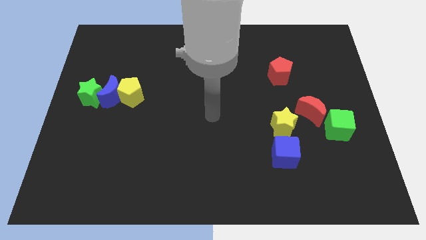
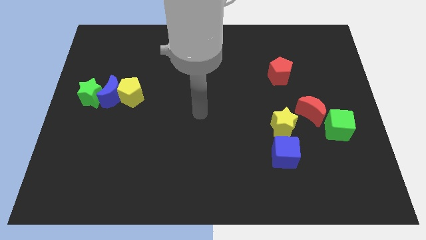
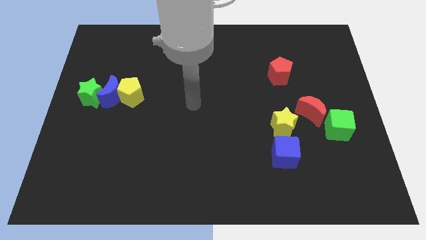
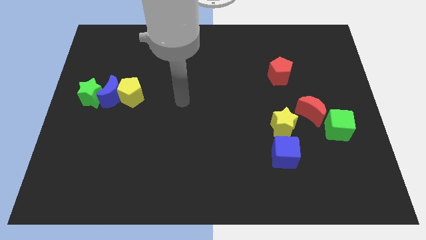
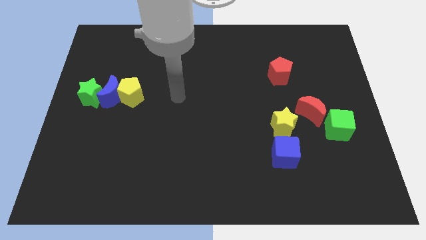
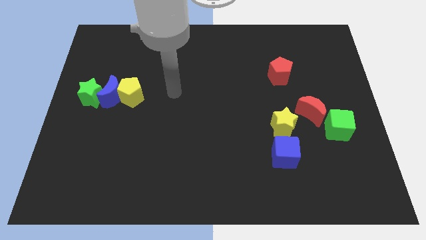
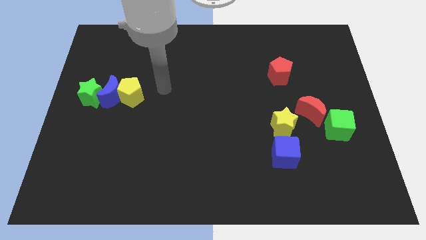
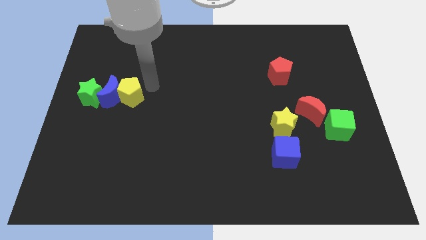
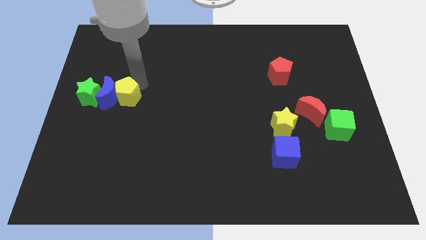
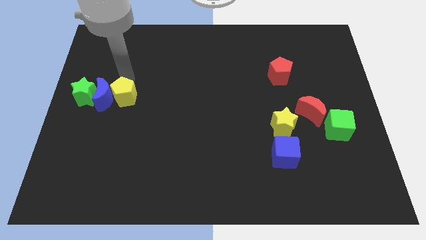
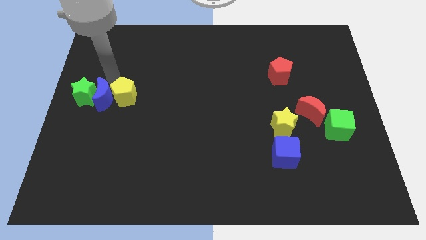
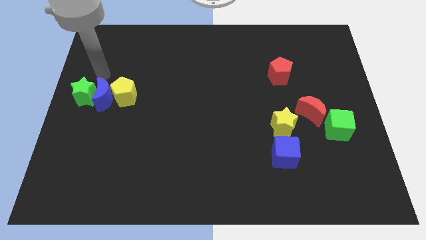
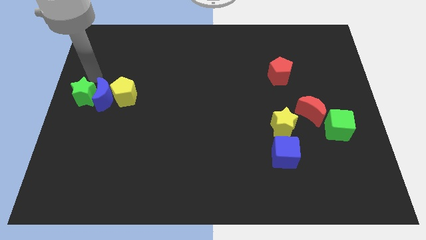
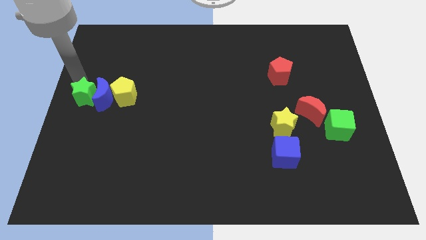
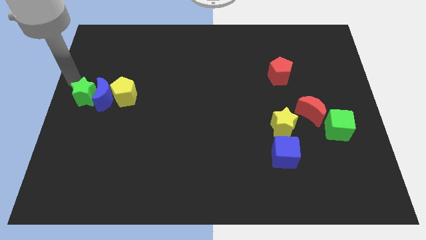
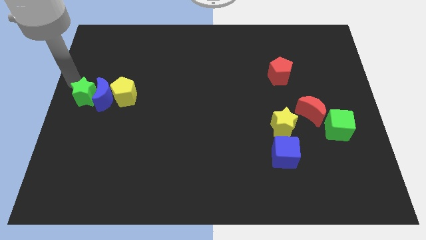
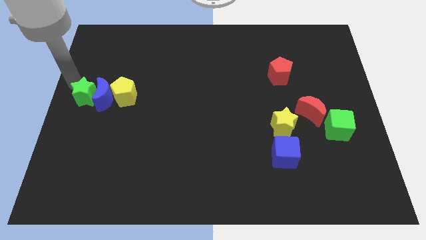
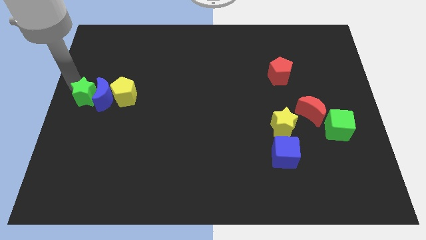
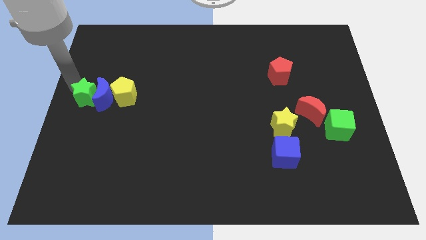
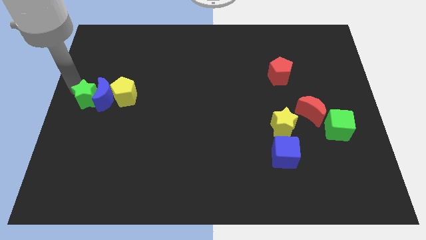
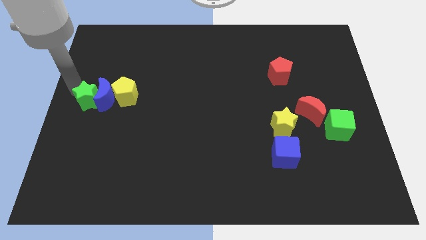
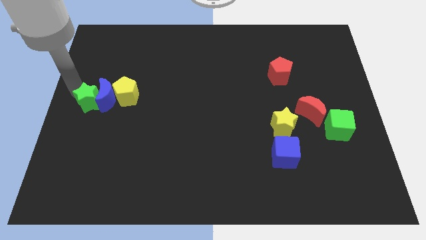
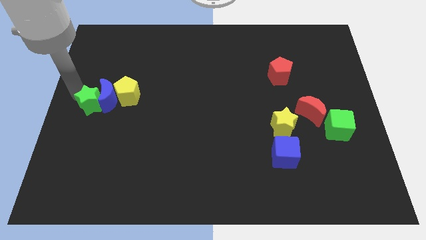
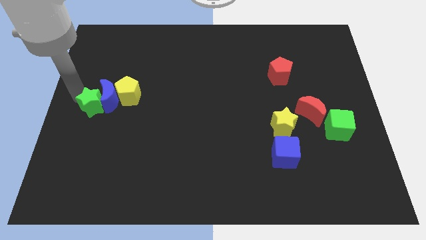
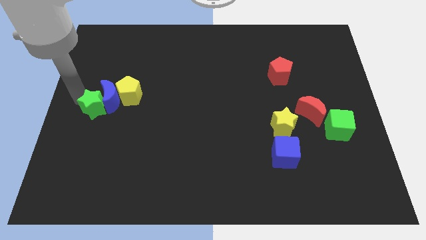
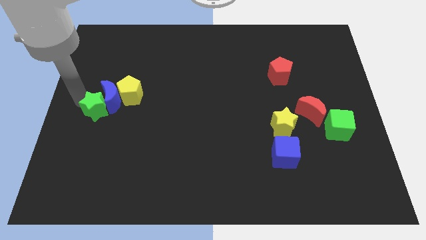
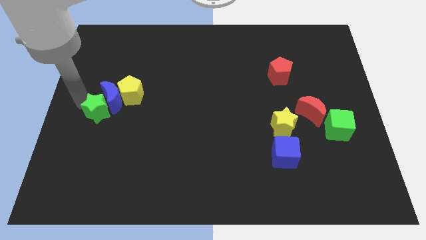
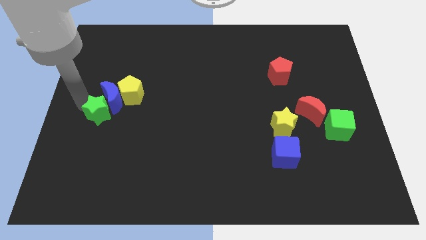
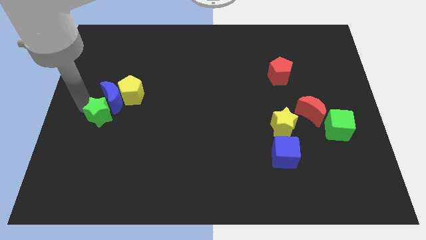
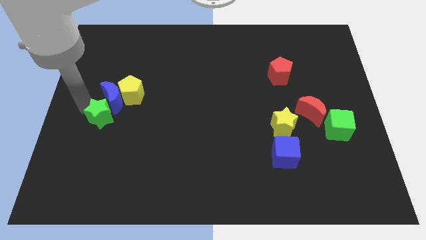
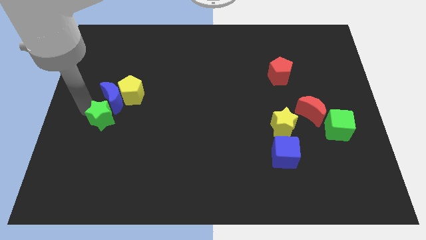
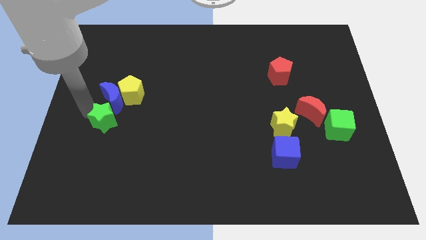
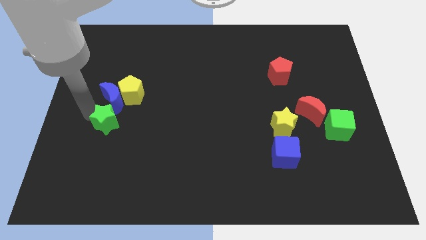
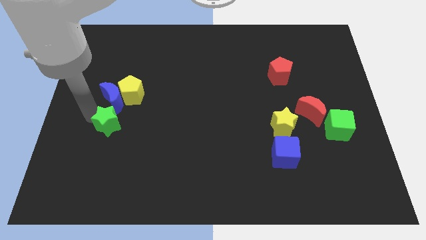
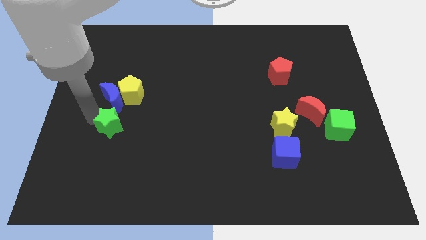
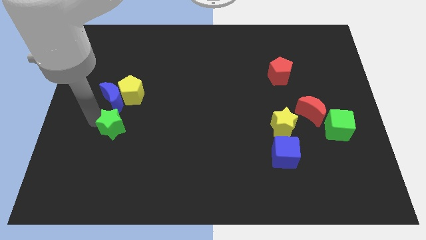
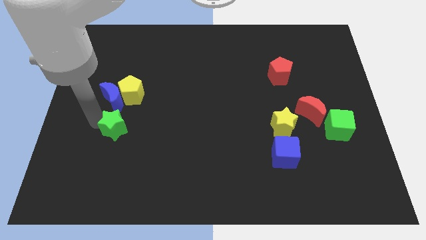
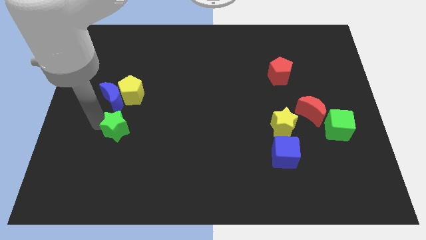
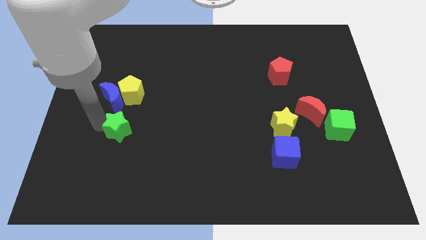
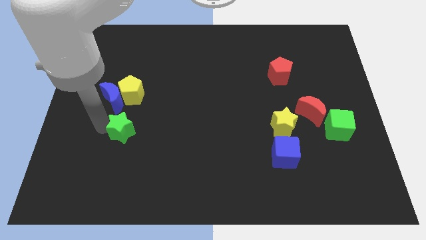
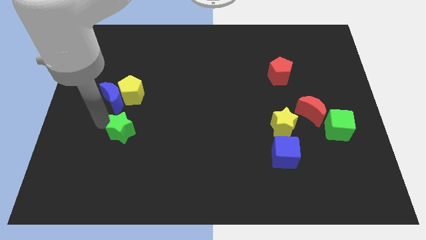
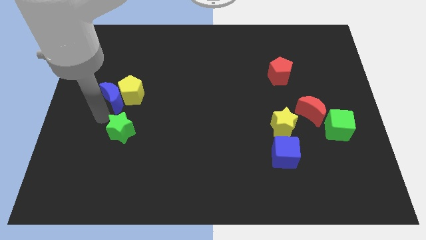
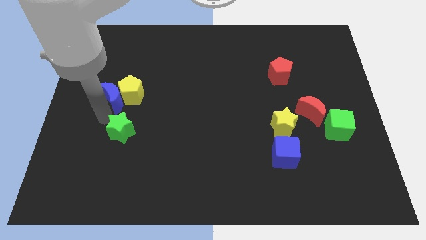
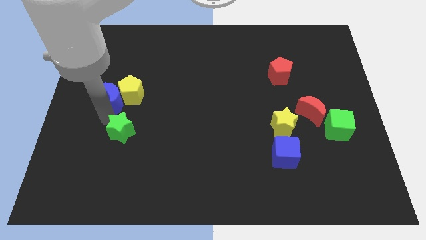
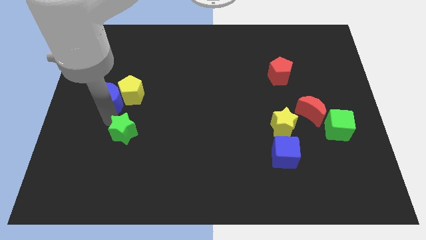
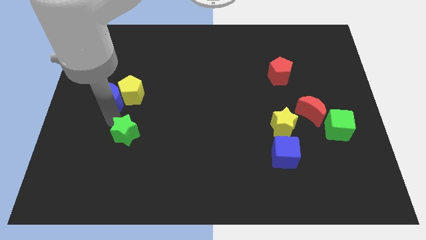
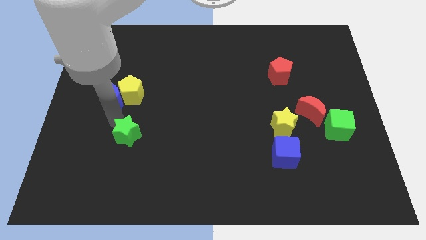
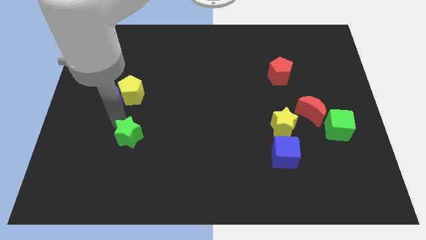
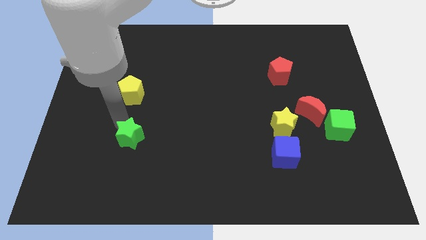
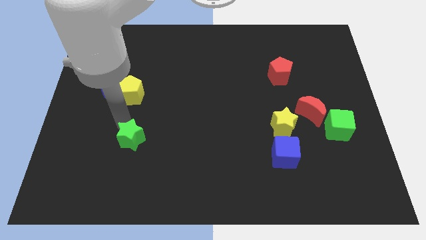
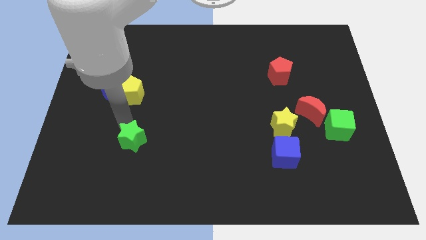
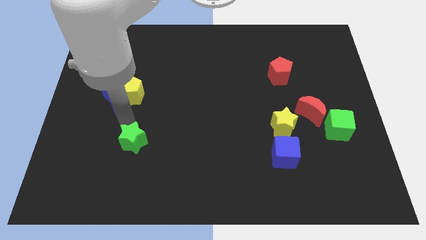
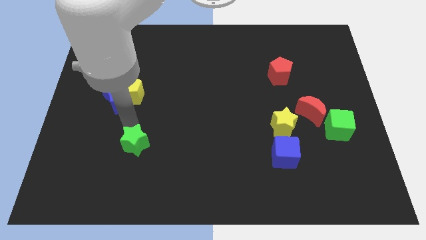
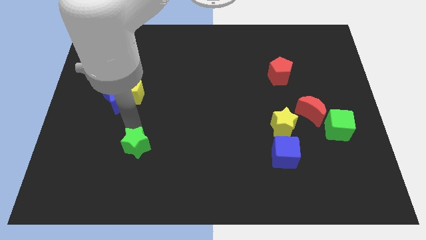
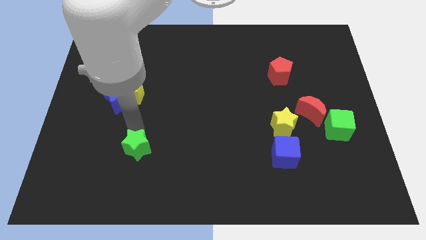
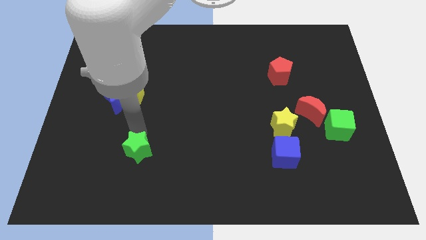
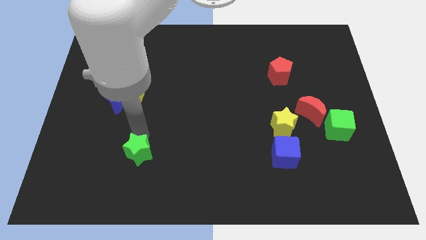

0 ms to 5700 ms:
push the green star downwards and to the right

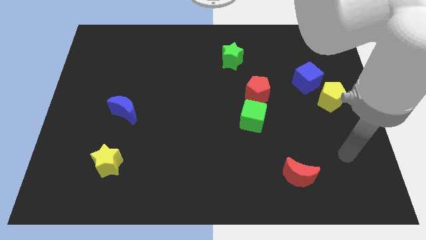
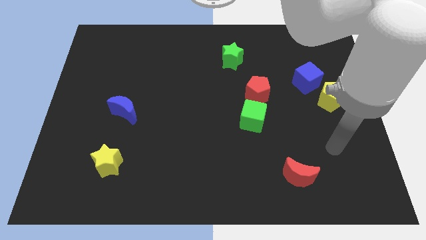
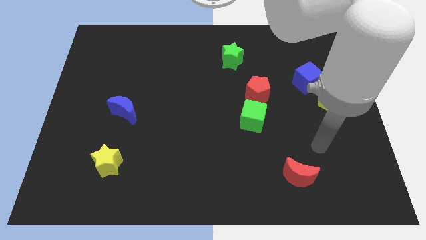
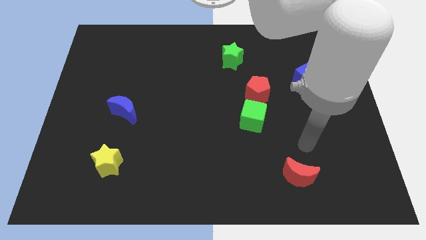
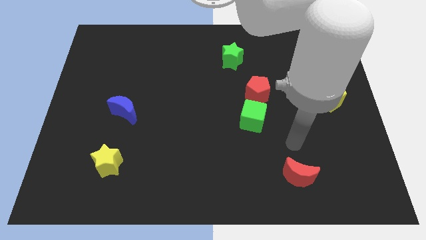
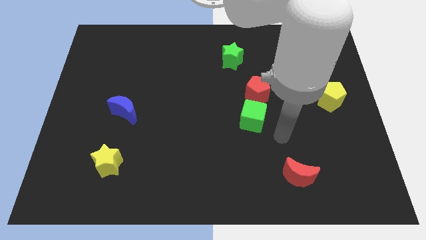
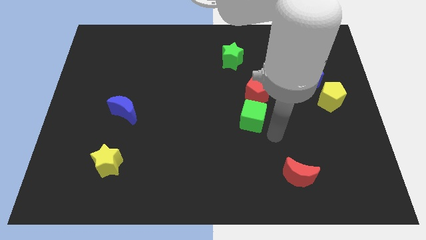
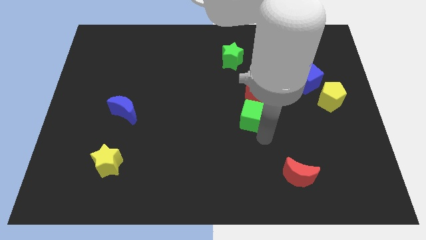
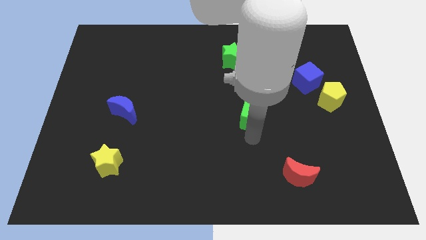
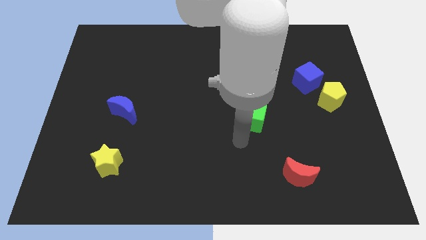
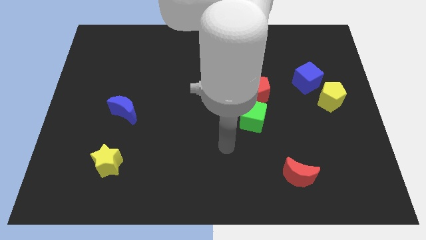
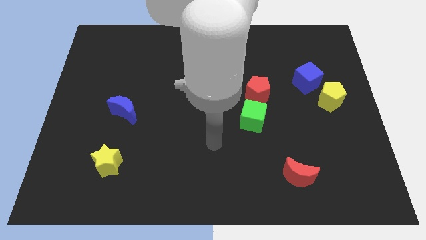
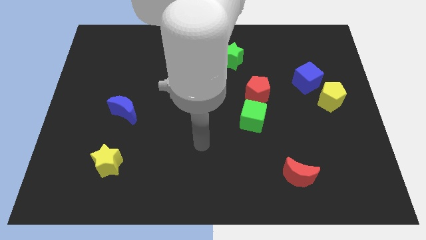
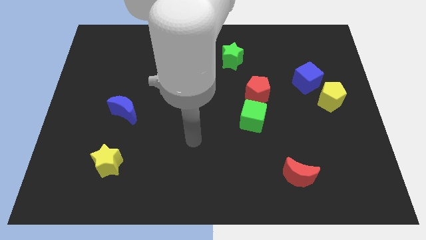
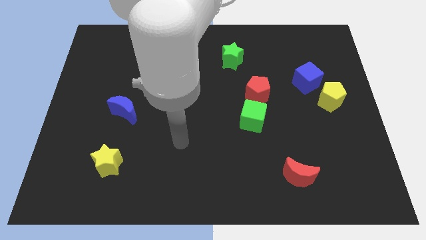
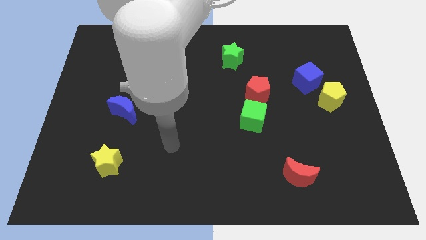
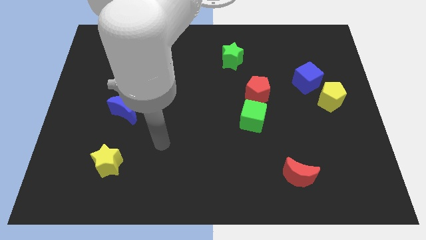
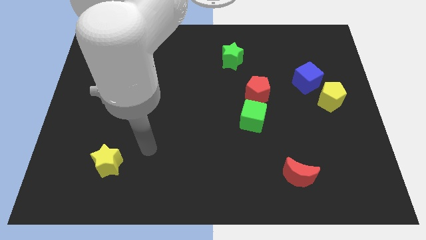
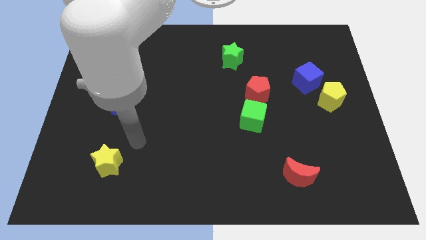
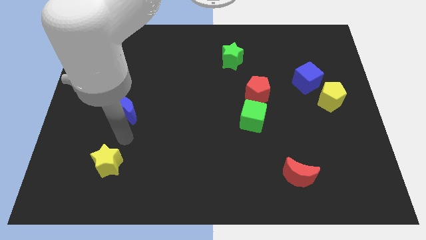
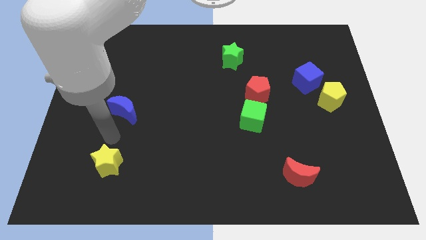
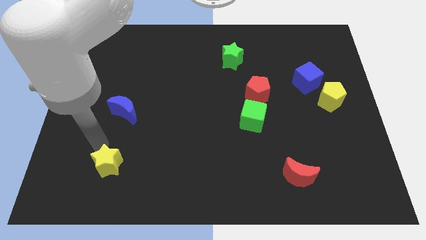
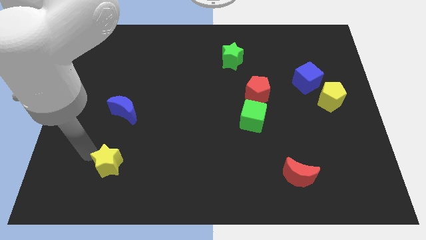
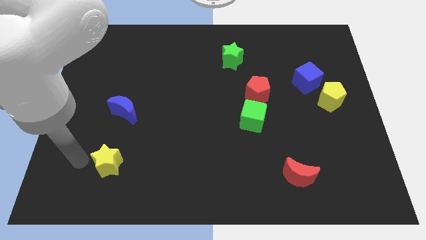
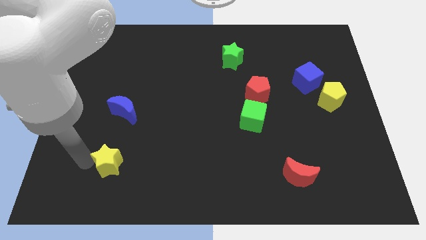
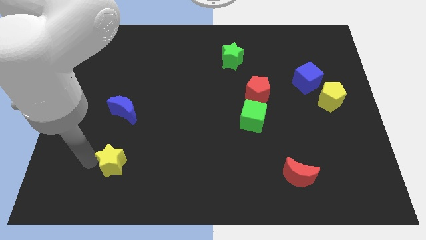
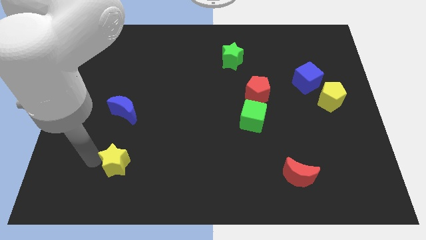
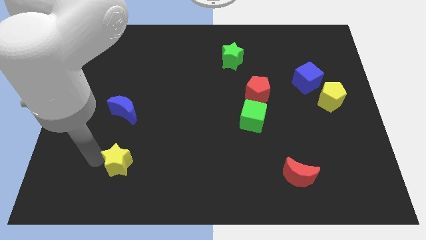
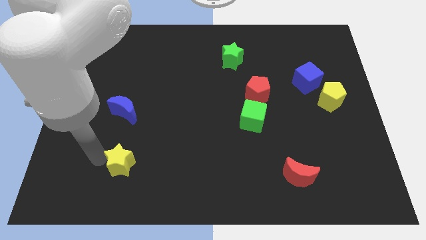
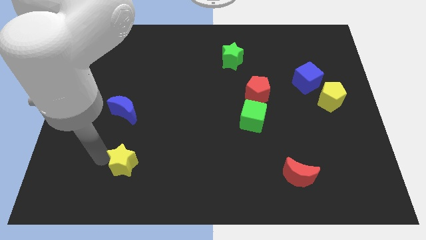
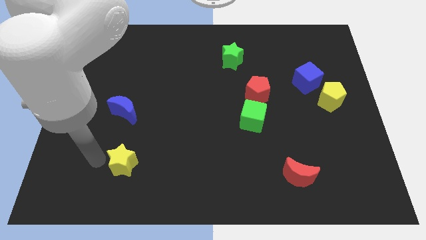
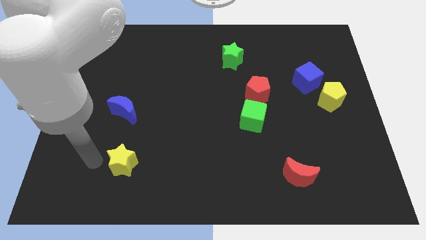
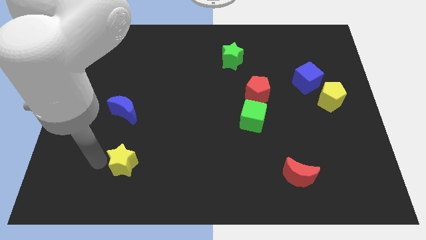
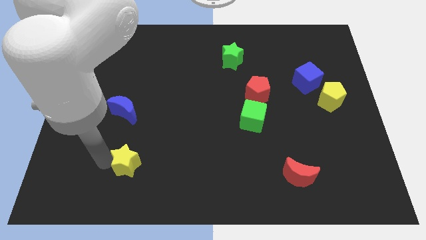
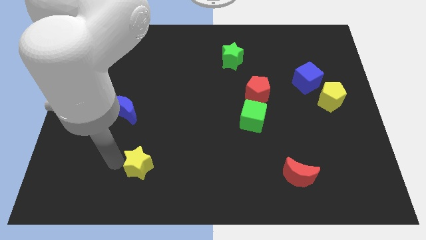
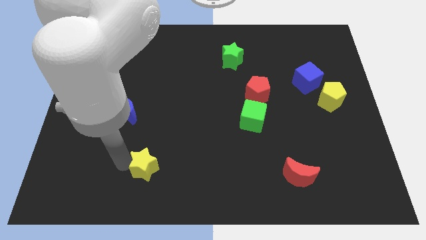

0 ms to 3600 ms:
slightly slide the yellow star right
